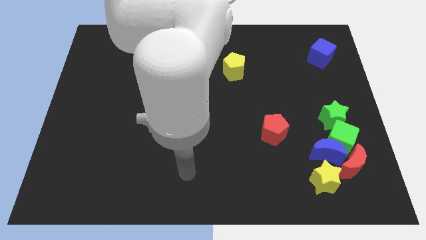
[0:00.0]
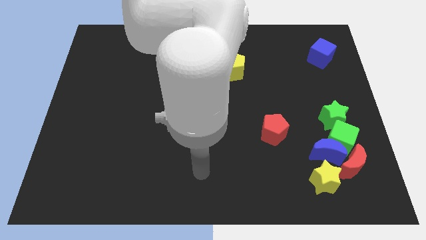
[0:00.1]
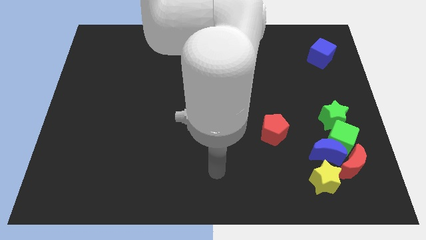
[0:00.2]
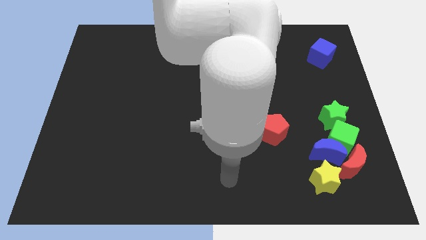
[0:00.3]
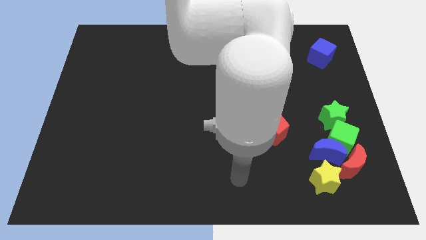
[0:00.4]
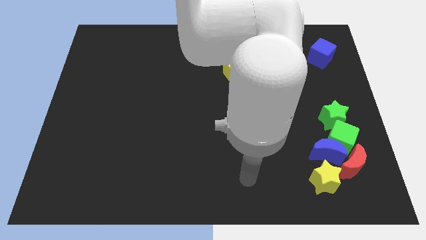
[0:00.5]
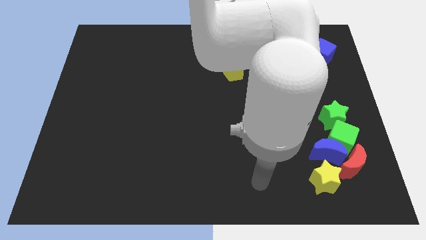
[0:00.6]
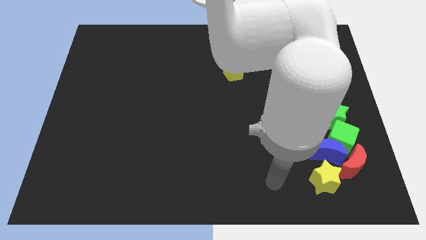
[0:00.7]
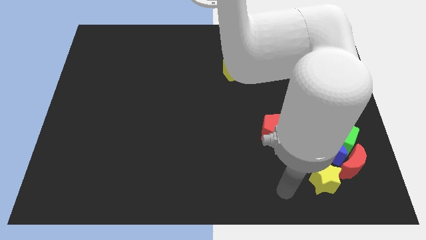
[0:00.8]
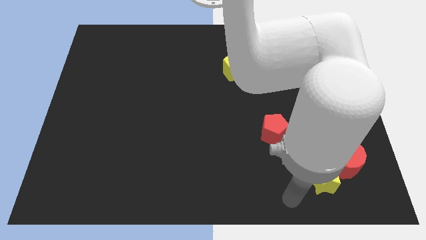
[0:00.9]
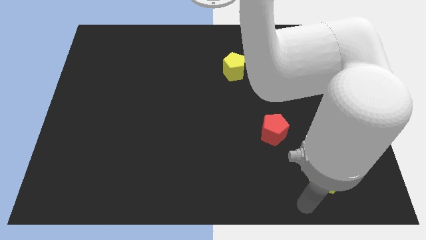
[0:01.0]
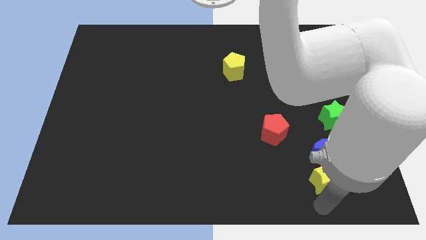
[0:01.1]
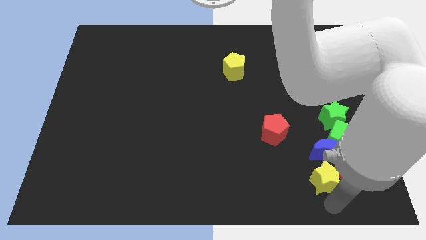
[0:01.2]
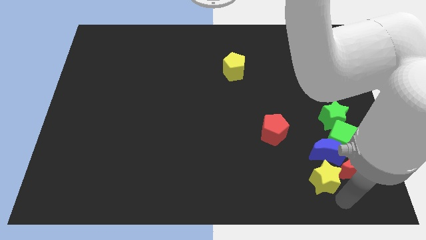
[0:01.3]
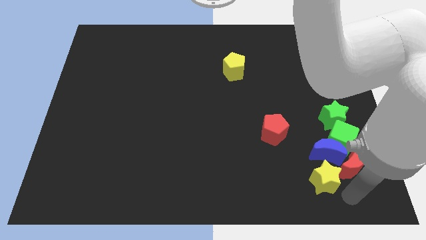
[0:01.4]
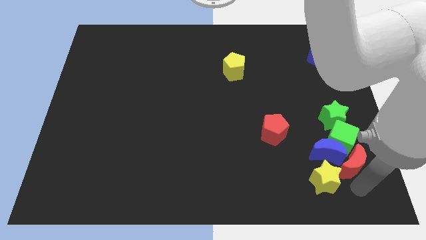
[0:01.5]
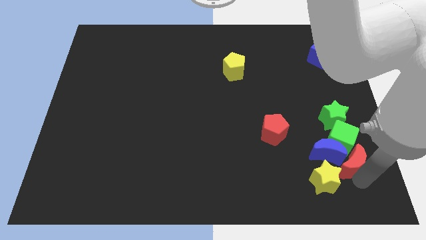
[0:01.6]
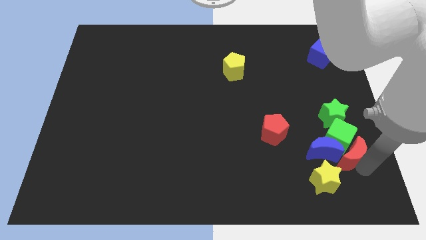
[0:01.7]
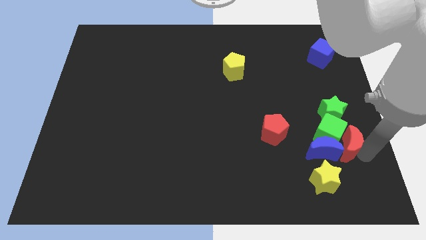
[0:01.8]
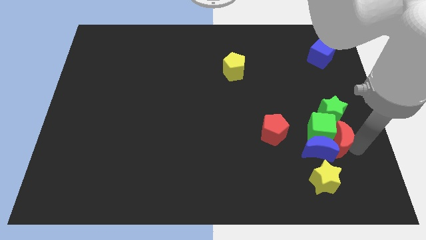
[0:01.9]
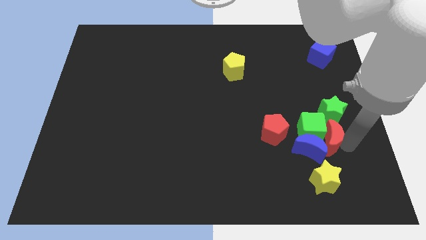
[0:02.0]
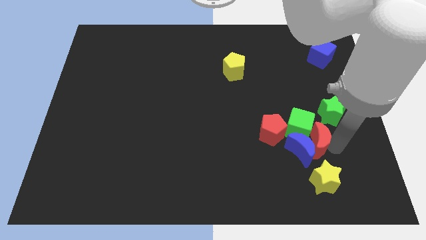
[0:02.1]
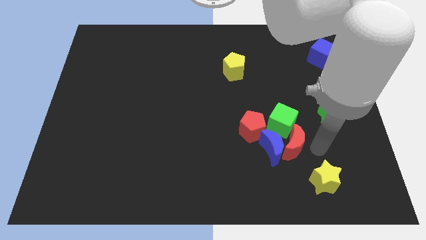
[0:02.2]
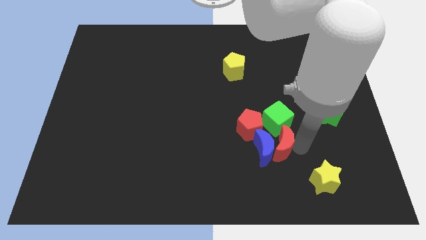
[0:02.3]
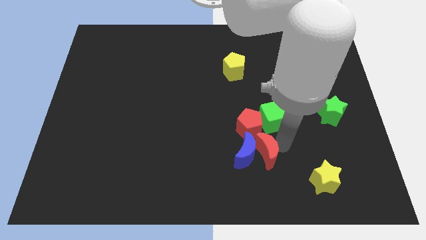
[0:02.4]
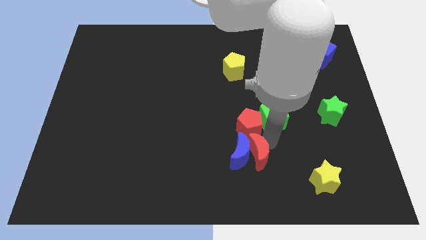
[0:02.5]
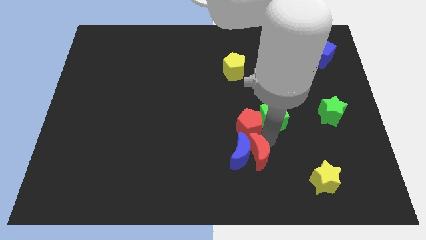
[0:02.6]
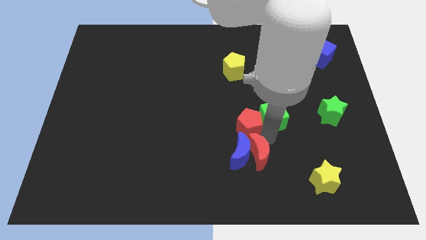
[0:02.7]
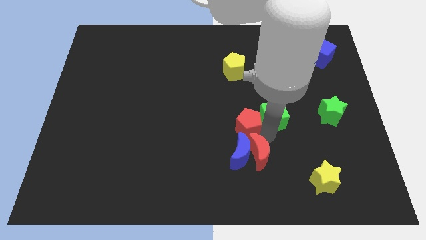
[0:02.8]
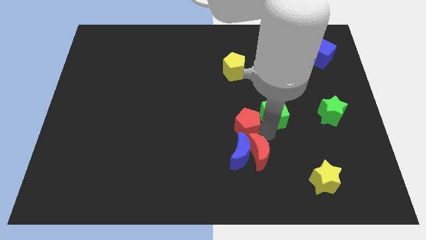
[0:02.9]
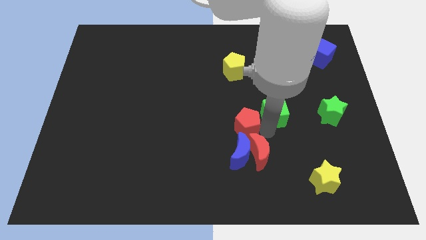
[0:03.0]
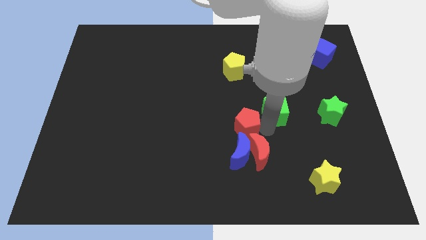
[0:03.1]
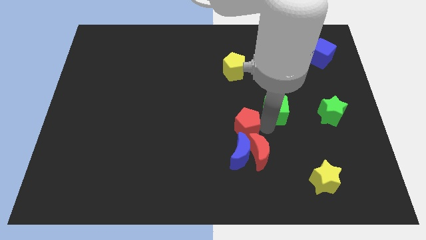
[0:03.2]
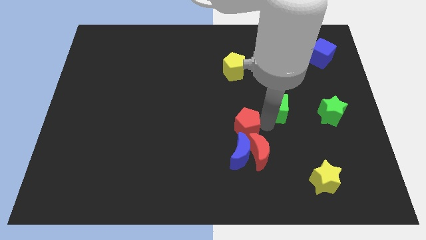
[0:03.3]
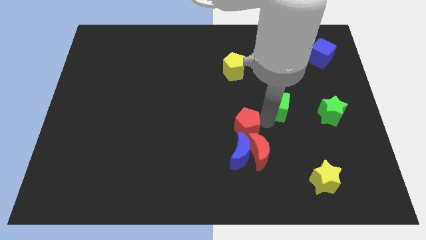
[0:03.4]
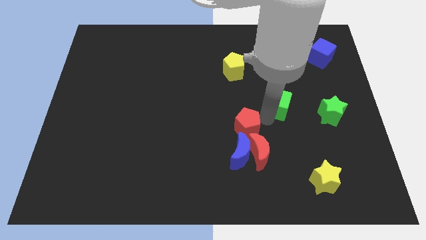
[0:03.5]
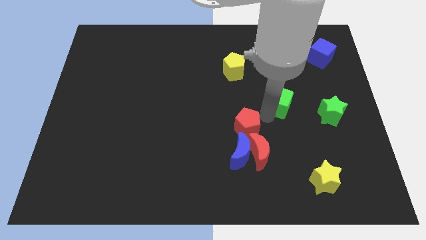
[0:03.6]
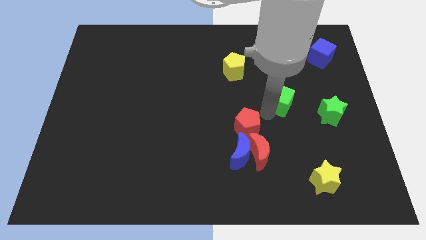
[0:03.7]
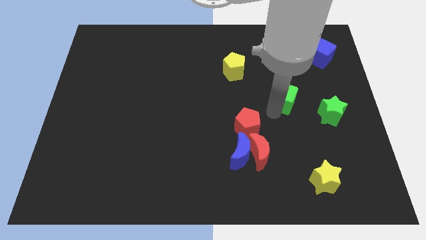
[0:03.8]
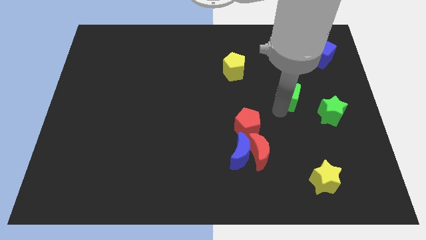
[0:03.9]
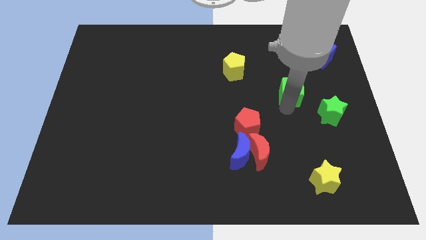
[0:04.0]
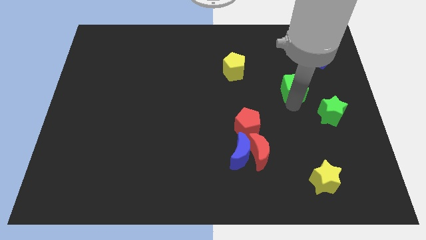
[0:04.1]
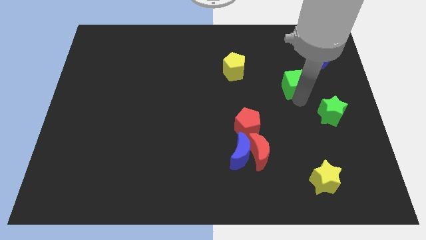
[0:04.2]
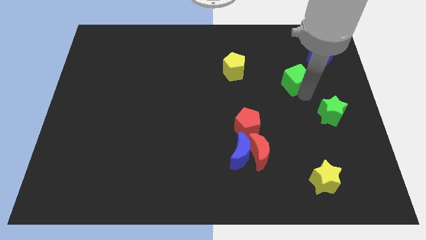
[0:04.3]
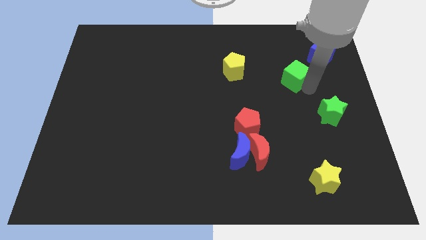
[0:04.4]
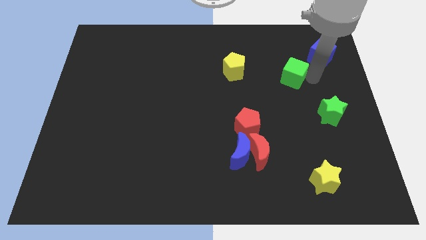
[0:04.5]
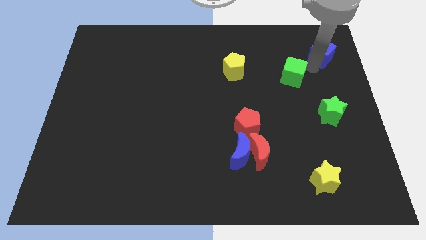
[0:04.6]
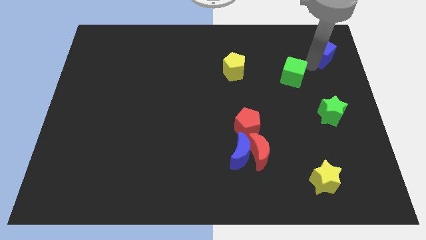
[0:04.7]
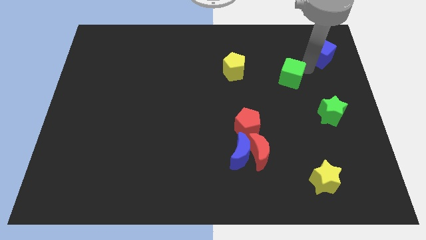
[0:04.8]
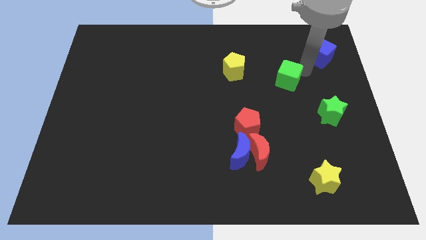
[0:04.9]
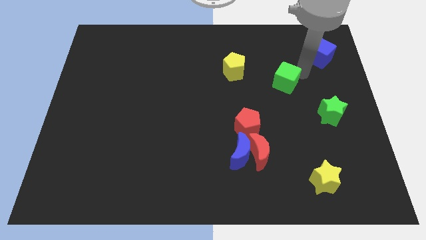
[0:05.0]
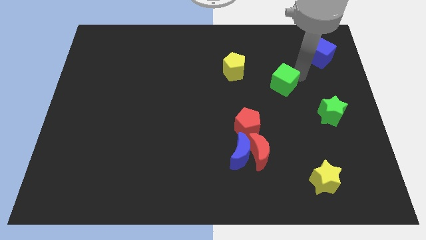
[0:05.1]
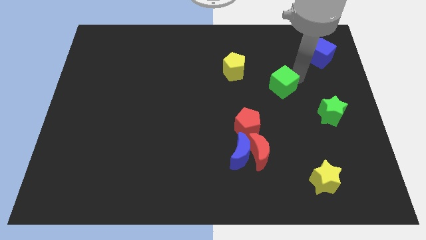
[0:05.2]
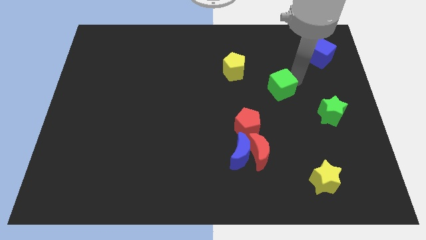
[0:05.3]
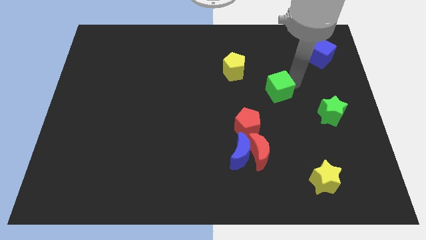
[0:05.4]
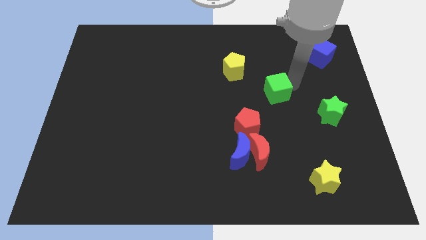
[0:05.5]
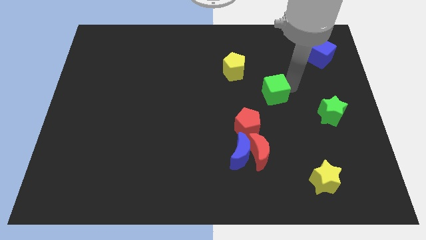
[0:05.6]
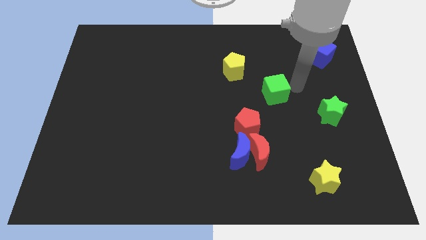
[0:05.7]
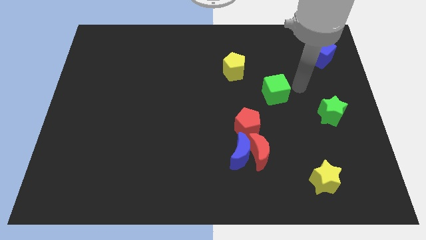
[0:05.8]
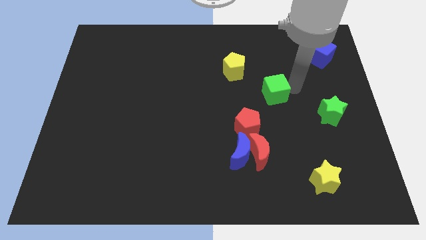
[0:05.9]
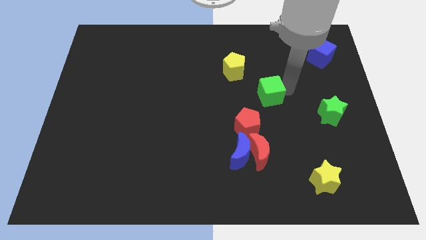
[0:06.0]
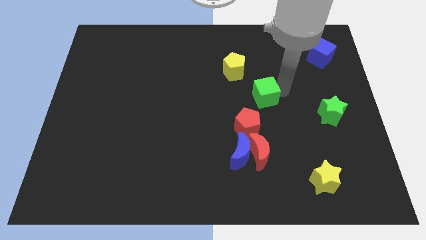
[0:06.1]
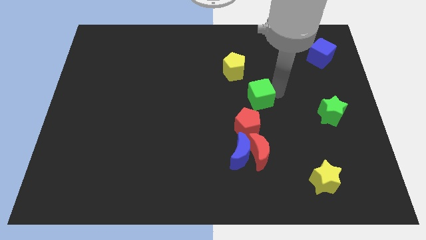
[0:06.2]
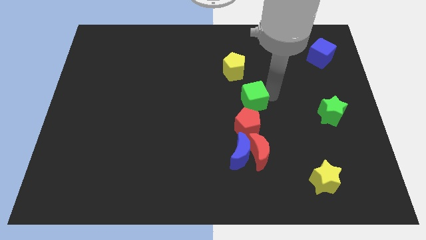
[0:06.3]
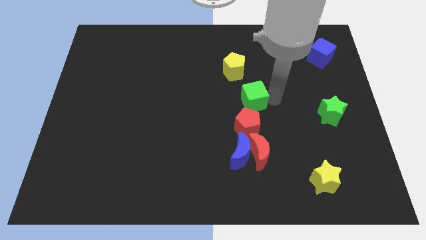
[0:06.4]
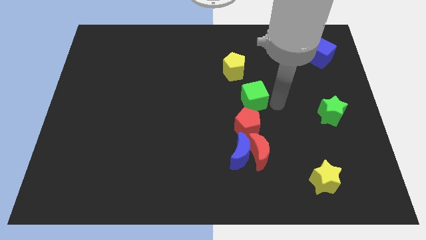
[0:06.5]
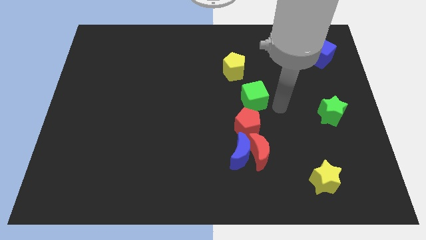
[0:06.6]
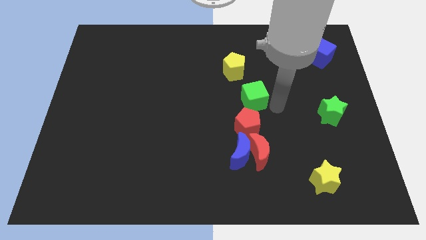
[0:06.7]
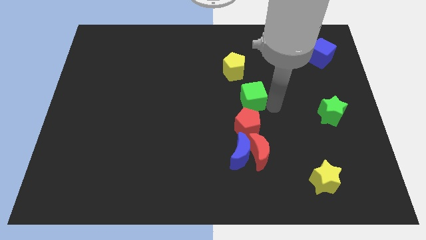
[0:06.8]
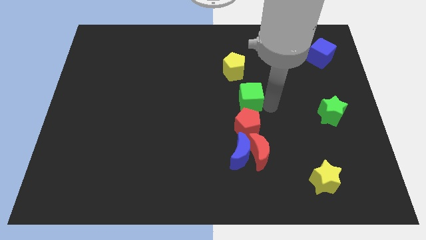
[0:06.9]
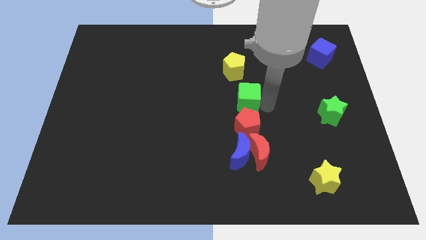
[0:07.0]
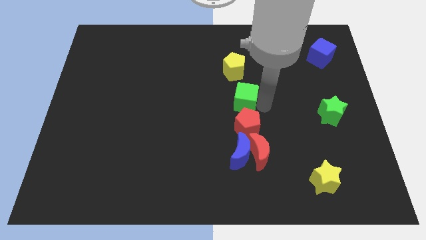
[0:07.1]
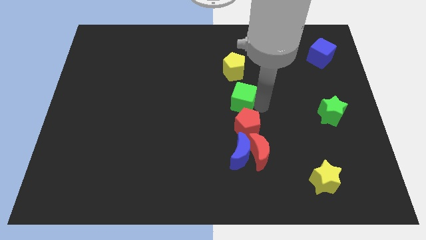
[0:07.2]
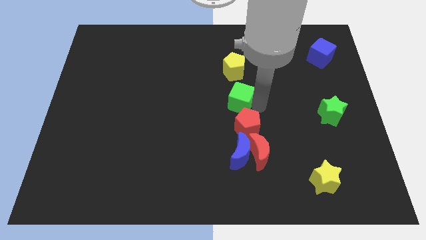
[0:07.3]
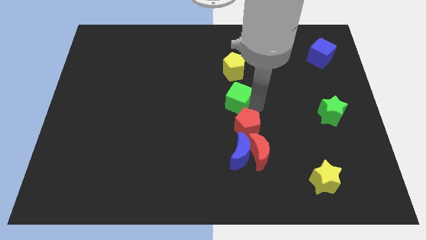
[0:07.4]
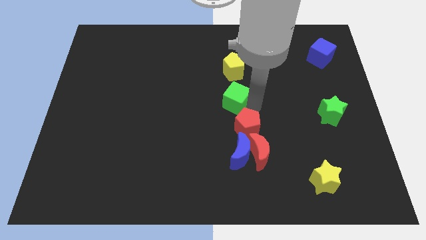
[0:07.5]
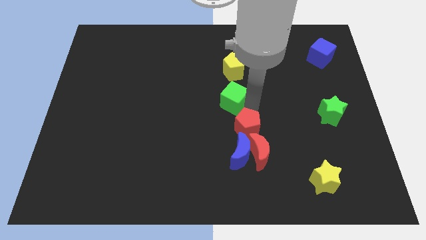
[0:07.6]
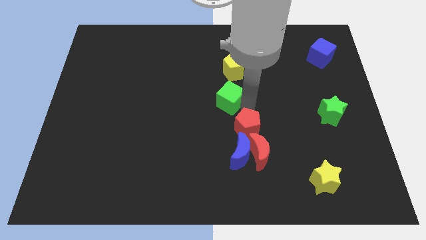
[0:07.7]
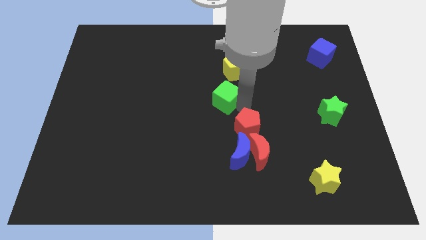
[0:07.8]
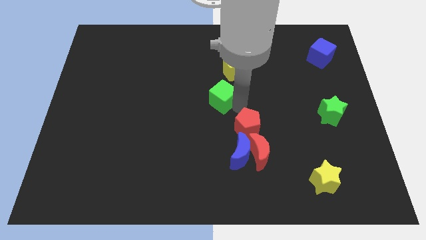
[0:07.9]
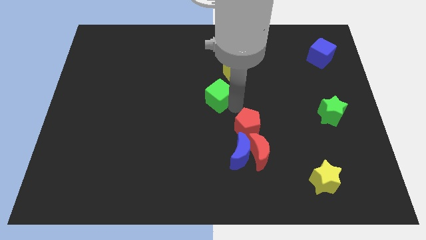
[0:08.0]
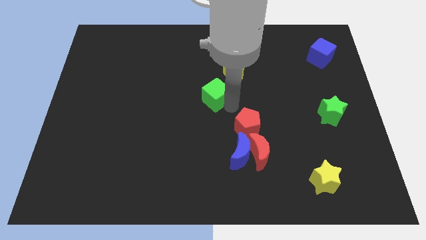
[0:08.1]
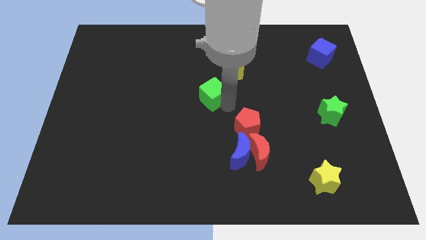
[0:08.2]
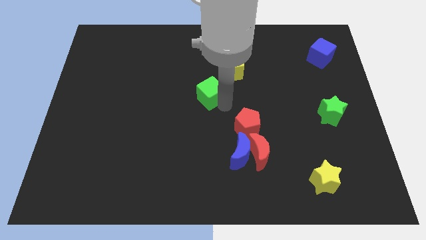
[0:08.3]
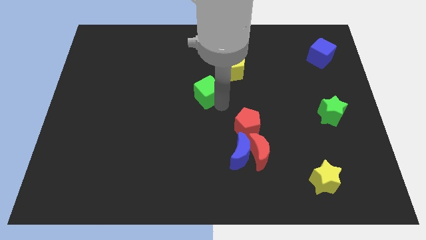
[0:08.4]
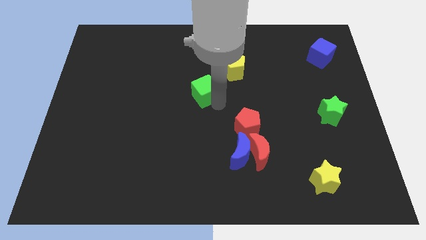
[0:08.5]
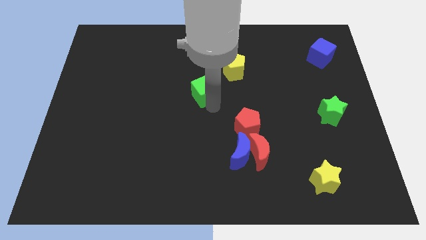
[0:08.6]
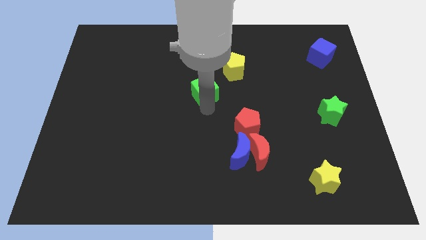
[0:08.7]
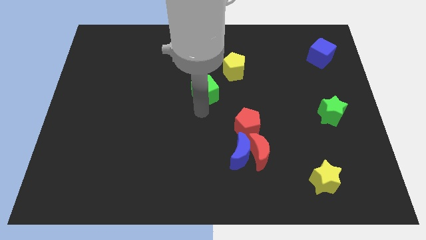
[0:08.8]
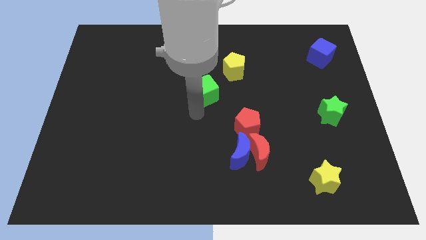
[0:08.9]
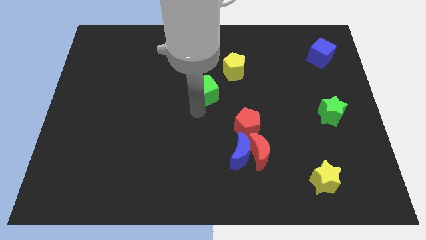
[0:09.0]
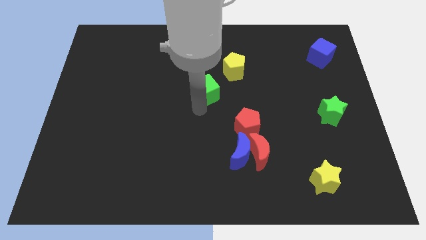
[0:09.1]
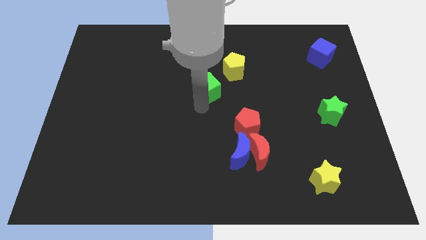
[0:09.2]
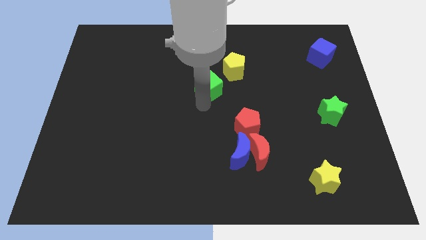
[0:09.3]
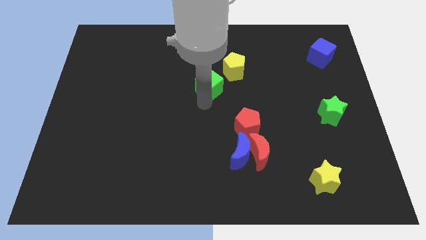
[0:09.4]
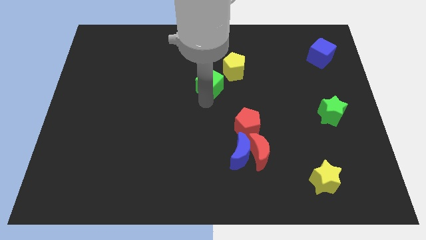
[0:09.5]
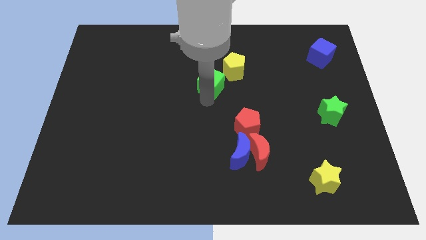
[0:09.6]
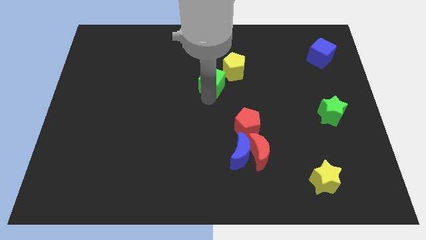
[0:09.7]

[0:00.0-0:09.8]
move the green cube just left of the yellow pentagon
